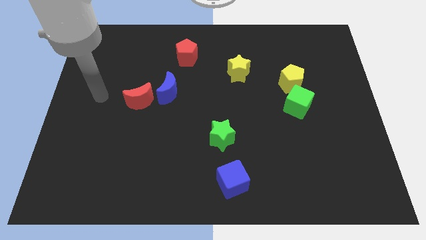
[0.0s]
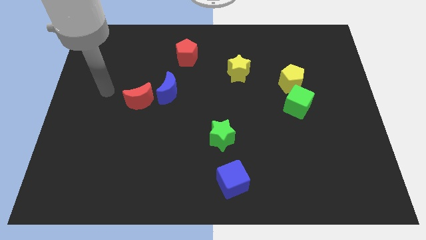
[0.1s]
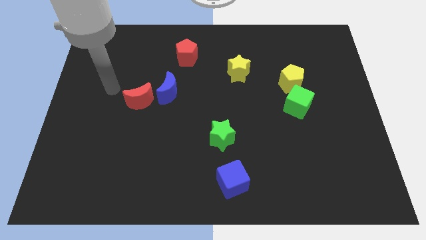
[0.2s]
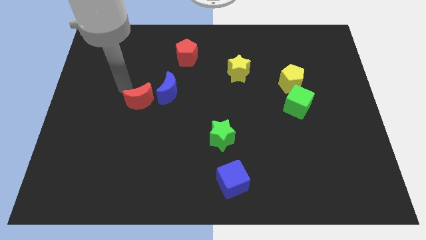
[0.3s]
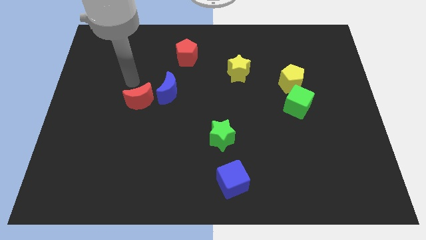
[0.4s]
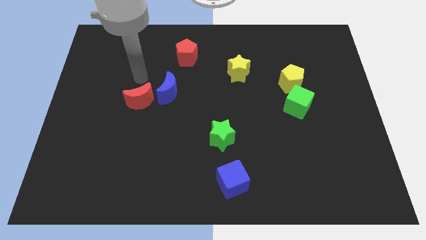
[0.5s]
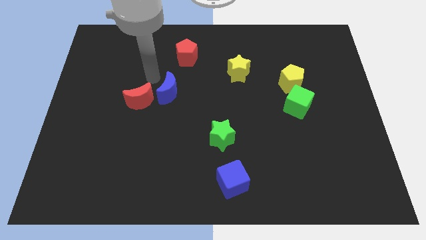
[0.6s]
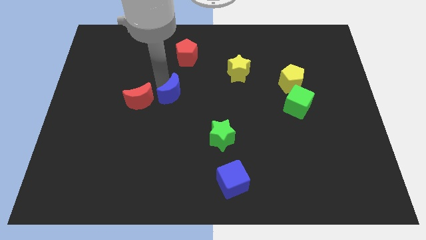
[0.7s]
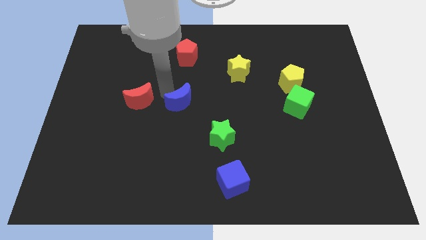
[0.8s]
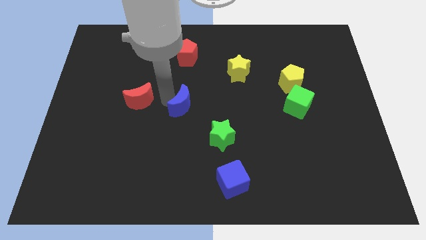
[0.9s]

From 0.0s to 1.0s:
separate the red moon from the blue moon

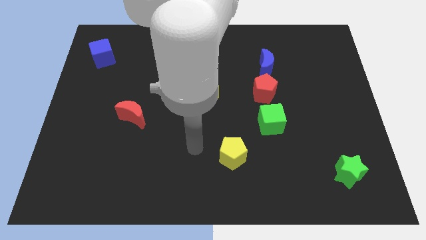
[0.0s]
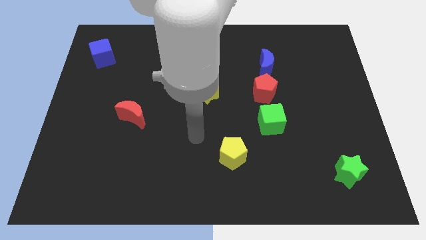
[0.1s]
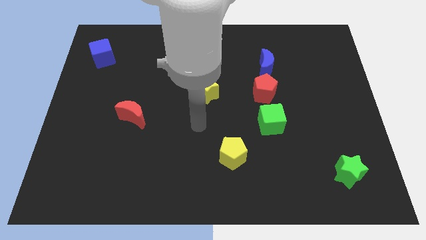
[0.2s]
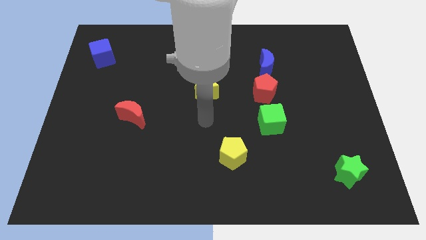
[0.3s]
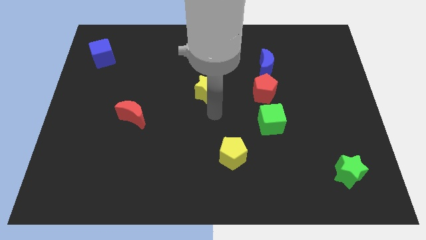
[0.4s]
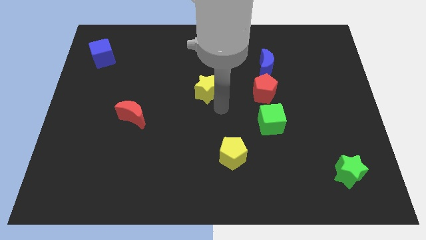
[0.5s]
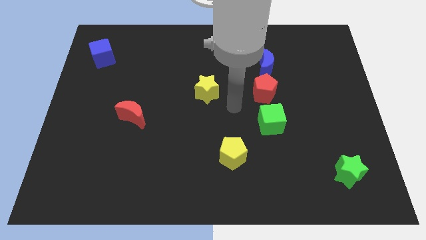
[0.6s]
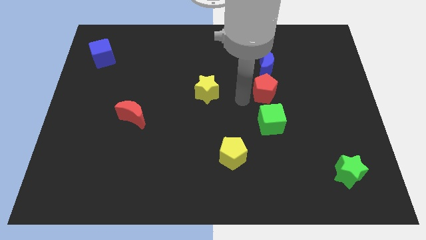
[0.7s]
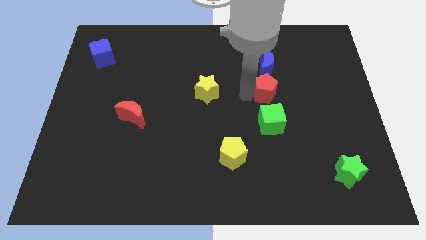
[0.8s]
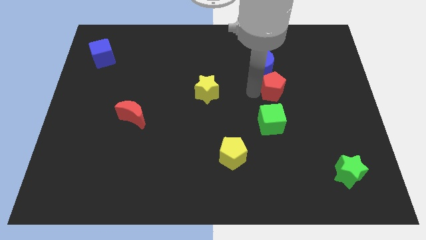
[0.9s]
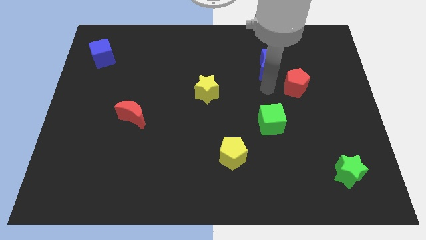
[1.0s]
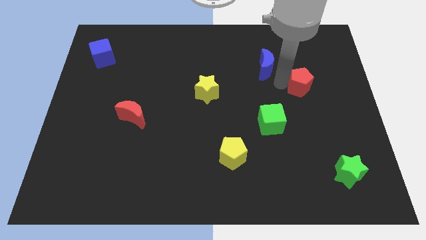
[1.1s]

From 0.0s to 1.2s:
separate the blue moon from the red pentagon

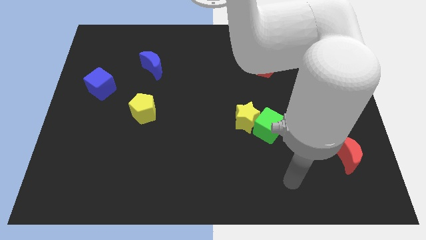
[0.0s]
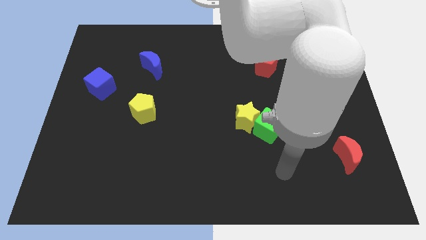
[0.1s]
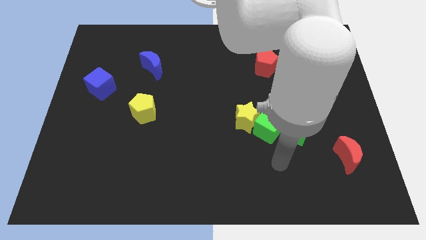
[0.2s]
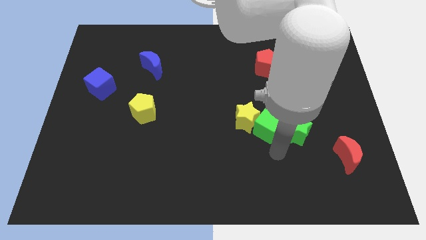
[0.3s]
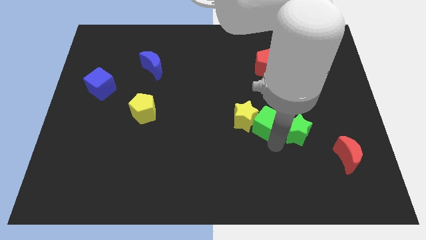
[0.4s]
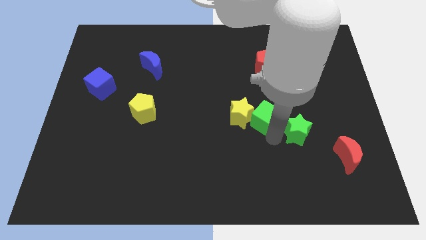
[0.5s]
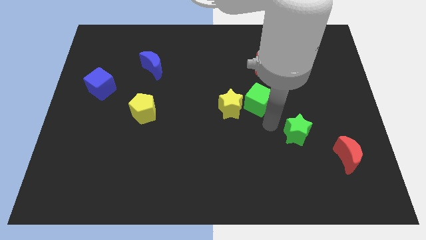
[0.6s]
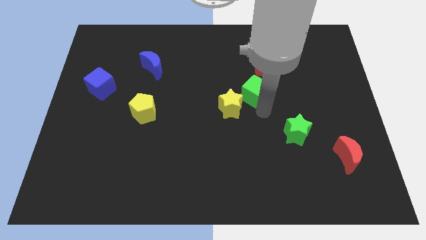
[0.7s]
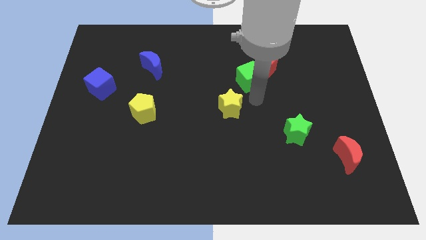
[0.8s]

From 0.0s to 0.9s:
pull the yellow star apart from the green cube

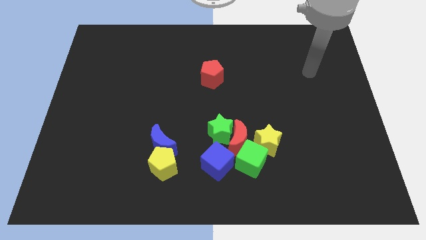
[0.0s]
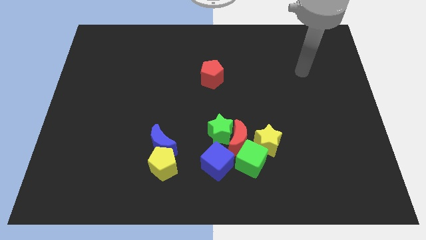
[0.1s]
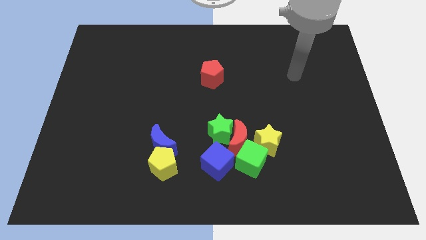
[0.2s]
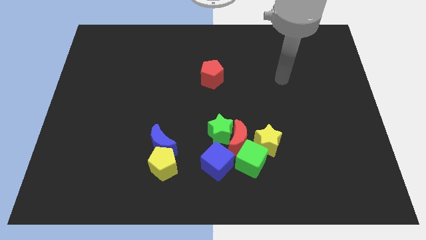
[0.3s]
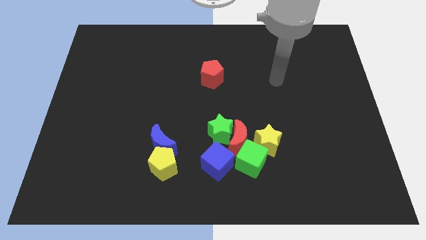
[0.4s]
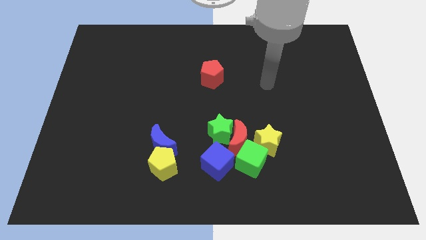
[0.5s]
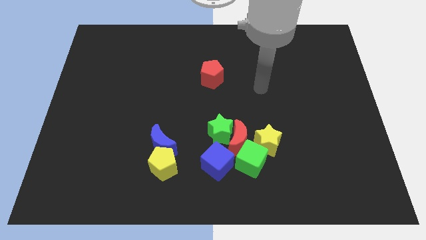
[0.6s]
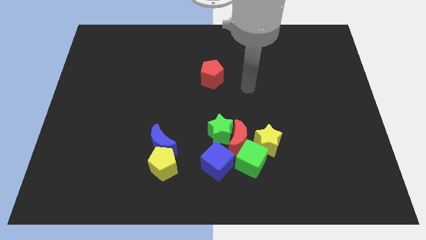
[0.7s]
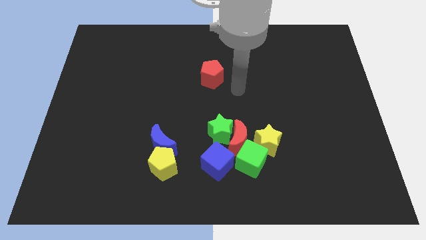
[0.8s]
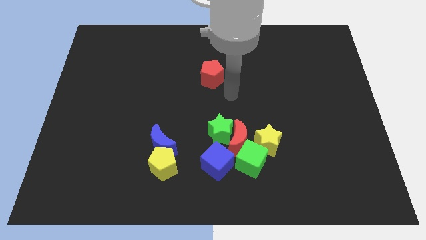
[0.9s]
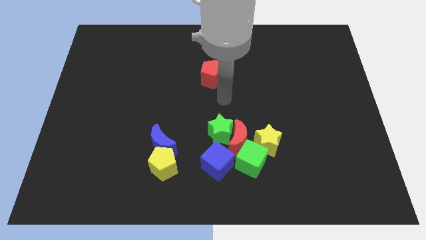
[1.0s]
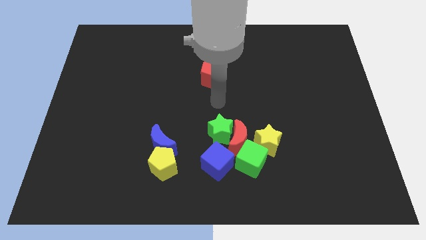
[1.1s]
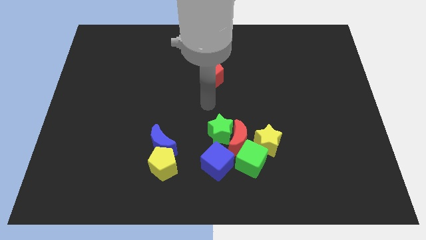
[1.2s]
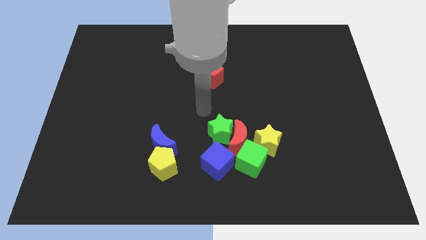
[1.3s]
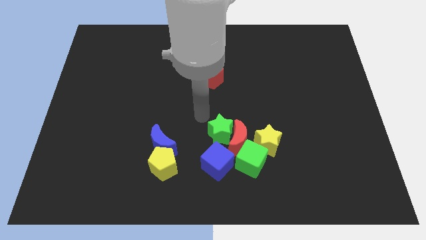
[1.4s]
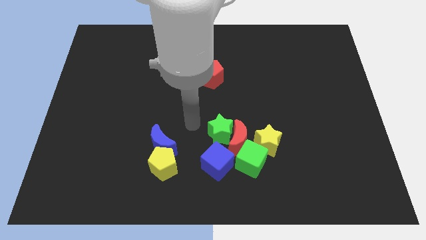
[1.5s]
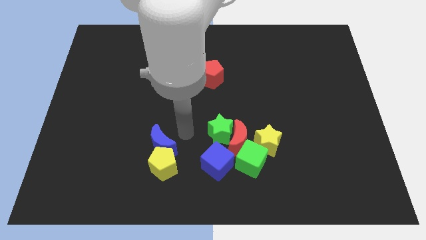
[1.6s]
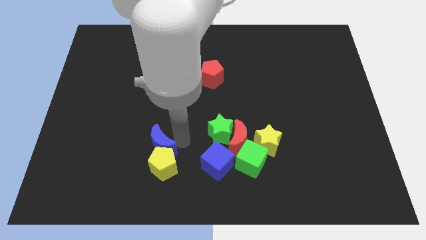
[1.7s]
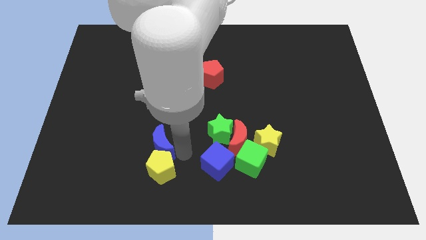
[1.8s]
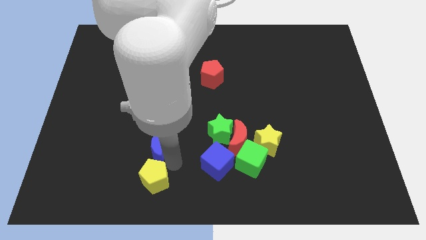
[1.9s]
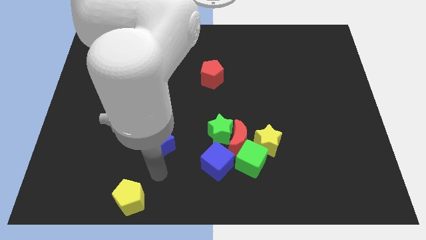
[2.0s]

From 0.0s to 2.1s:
move the blue moon away from the yellow pentagon

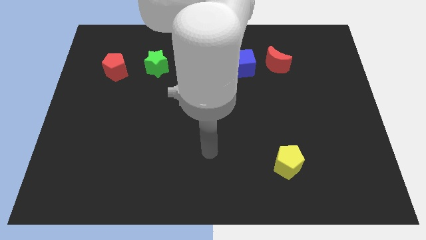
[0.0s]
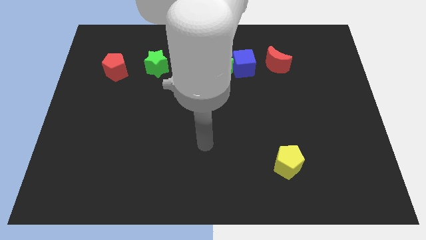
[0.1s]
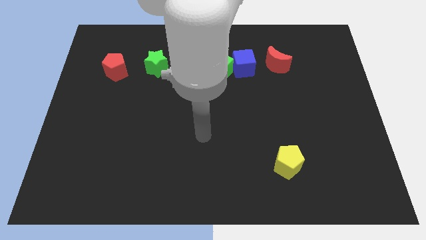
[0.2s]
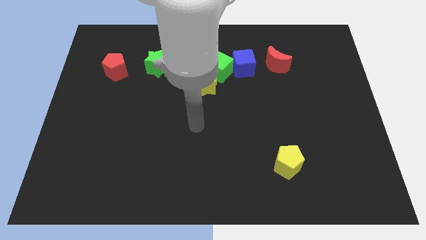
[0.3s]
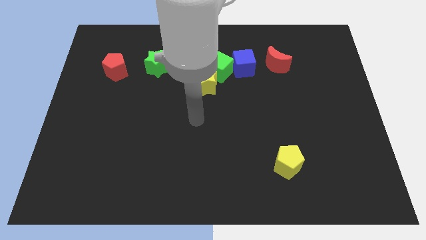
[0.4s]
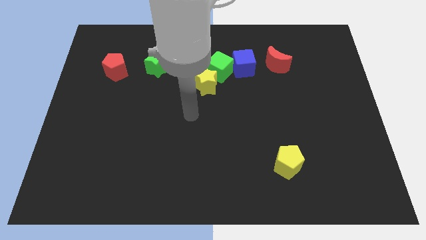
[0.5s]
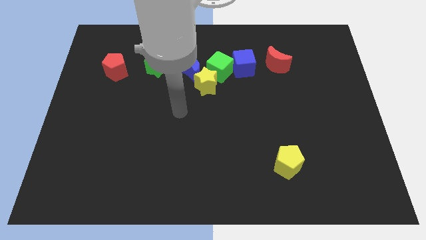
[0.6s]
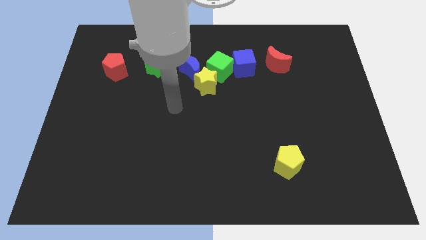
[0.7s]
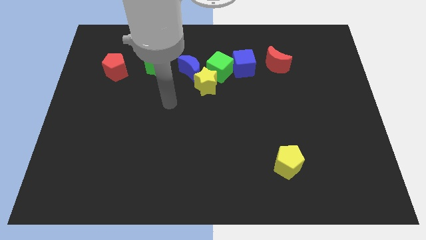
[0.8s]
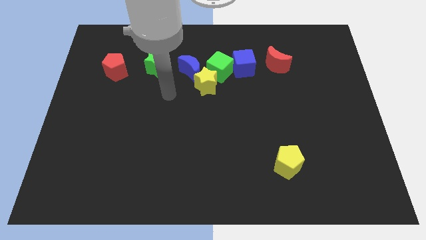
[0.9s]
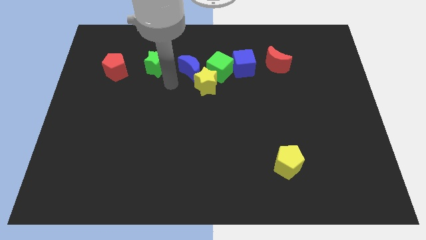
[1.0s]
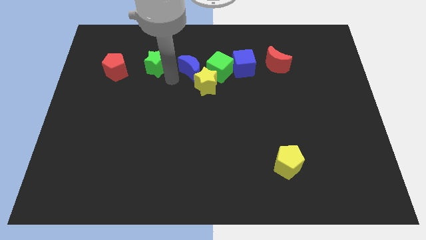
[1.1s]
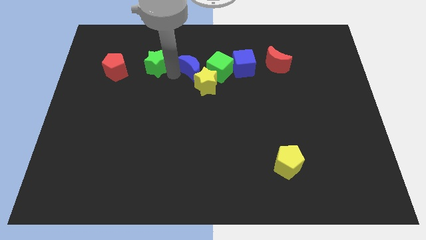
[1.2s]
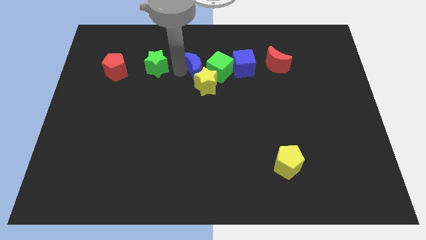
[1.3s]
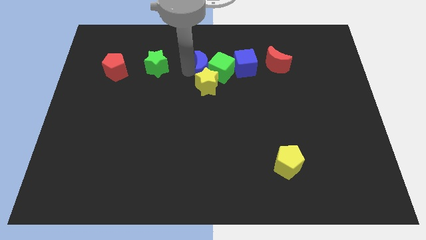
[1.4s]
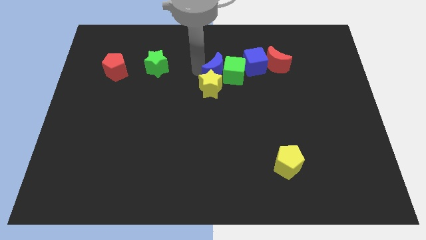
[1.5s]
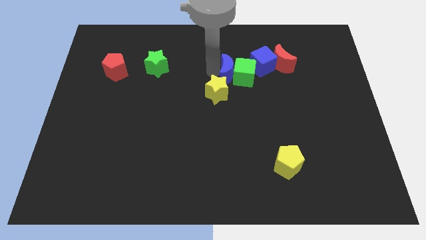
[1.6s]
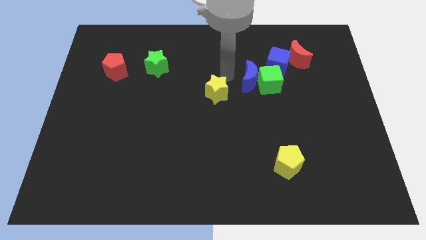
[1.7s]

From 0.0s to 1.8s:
pull the yellow star apart from the blue moon and green cube

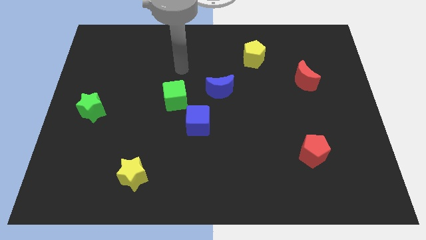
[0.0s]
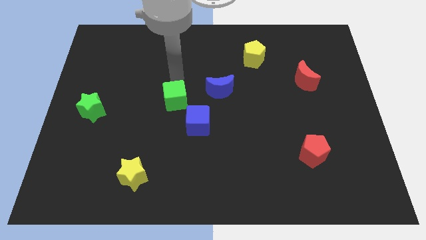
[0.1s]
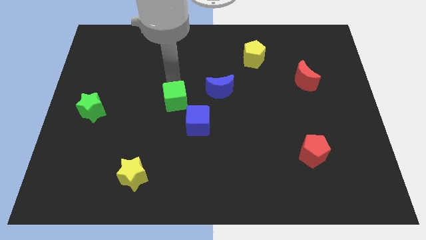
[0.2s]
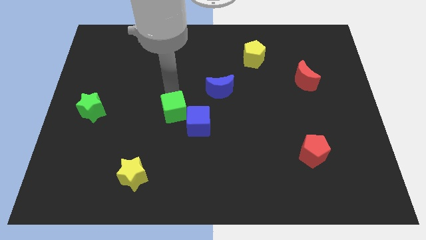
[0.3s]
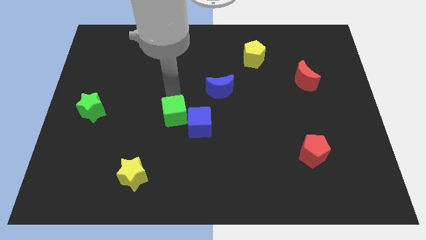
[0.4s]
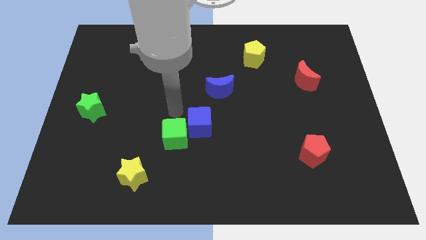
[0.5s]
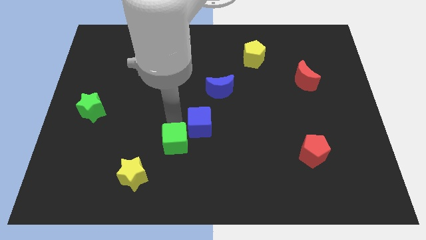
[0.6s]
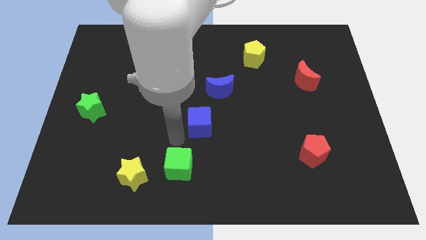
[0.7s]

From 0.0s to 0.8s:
move the blue cube away from the green cube

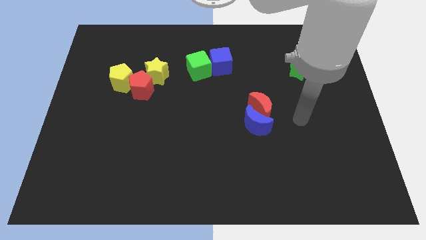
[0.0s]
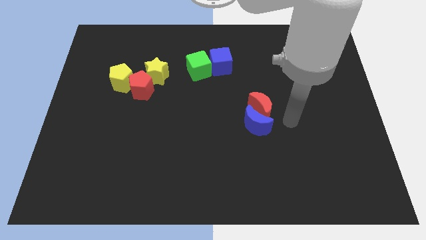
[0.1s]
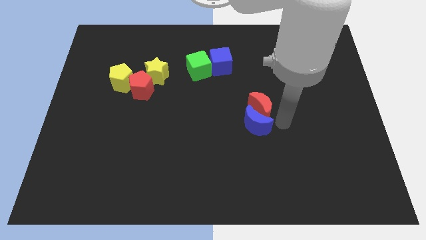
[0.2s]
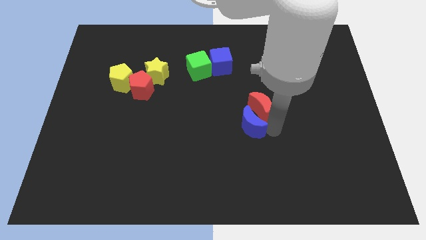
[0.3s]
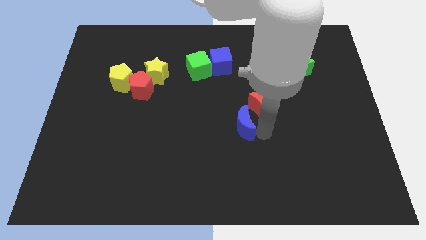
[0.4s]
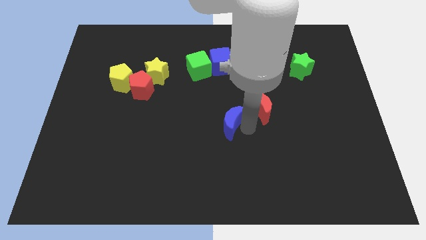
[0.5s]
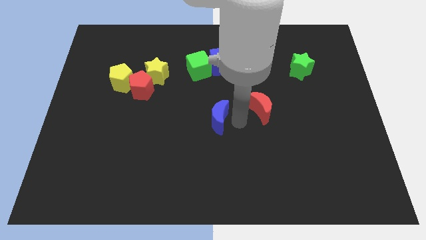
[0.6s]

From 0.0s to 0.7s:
pull the red moon apart from the blue moon

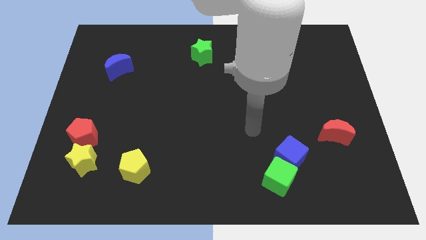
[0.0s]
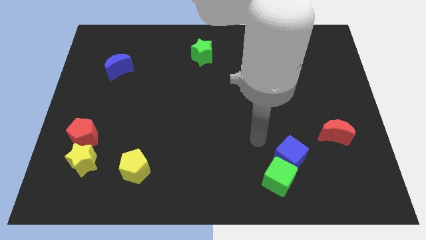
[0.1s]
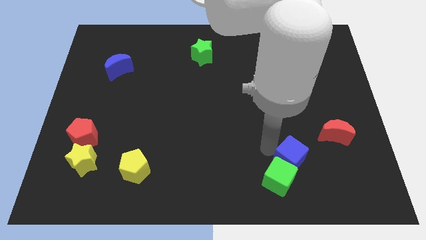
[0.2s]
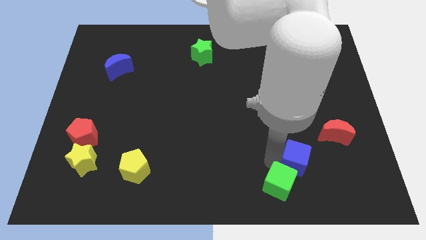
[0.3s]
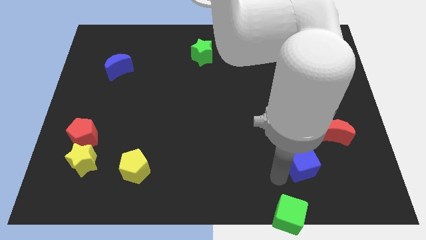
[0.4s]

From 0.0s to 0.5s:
separate the blue cube from the green cube

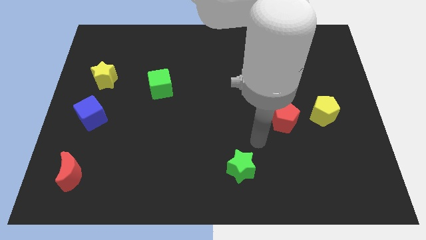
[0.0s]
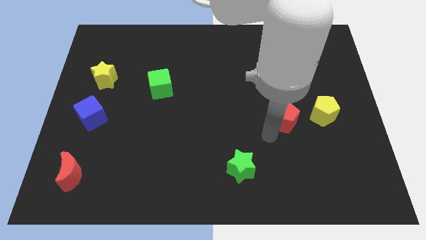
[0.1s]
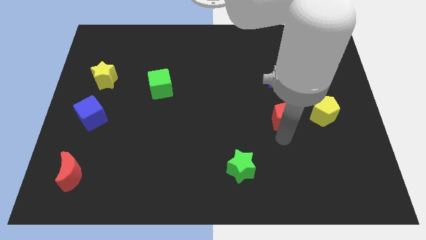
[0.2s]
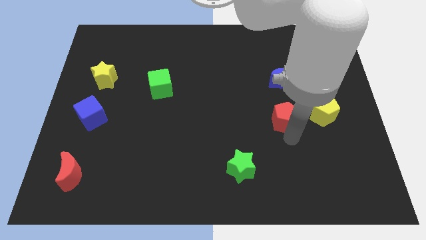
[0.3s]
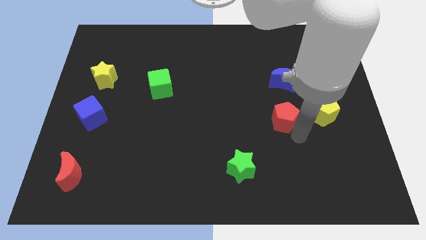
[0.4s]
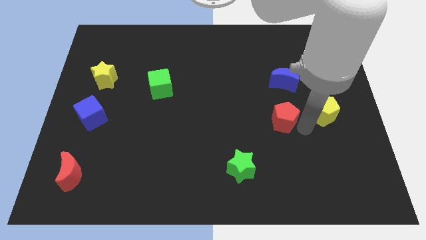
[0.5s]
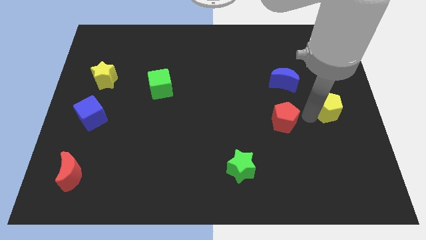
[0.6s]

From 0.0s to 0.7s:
move the red pentagon away from the yellow pentagon
